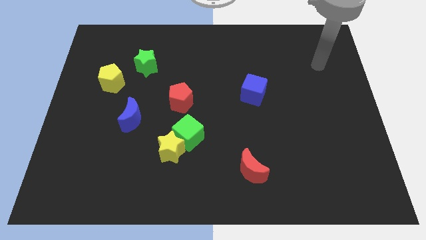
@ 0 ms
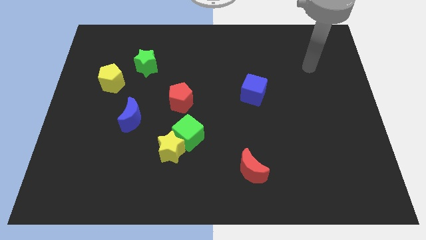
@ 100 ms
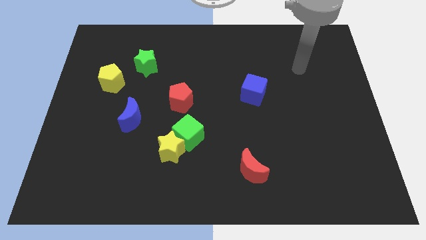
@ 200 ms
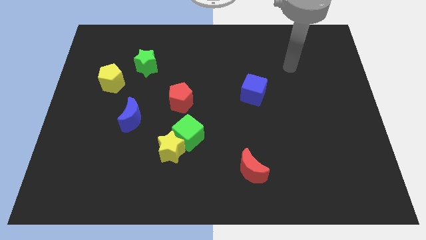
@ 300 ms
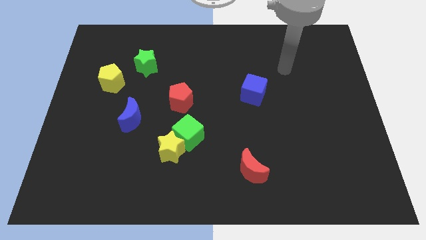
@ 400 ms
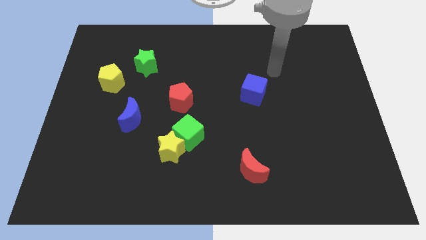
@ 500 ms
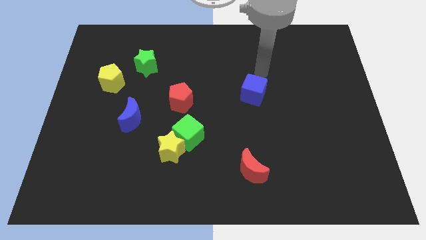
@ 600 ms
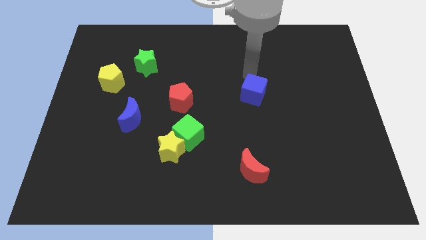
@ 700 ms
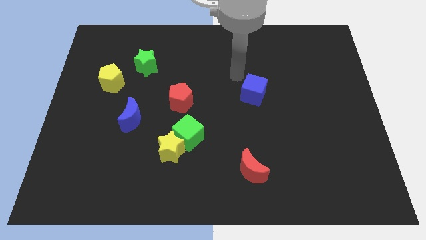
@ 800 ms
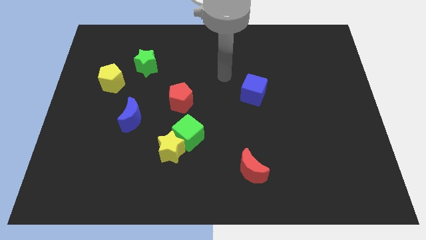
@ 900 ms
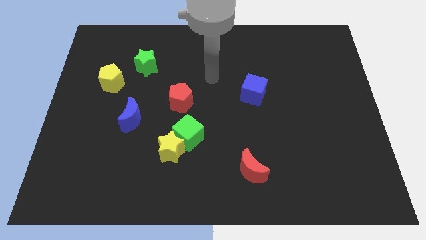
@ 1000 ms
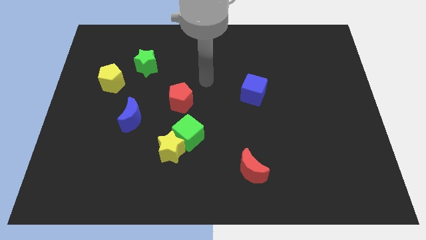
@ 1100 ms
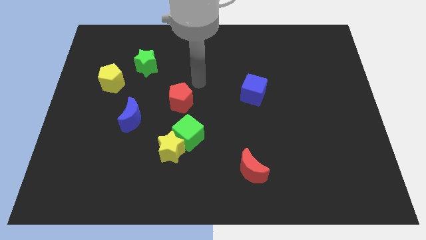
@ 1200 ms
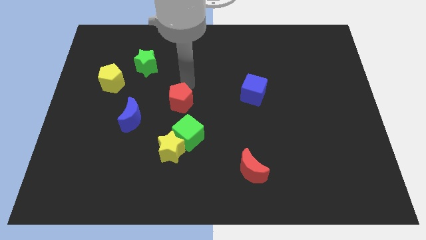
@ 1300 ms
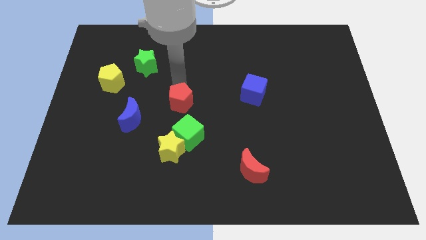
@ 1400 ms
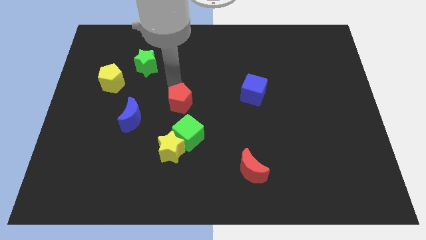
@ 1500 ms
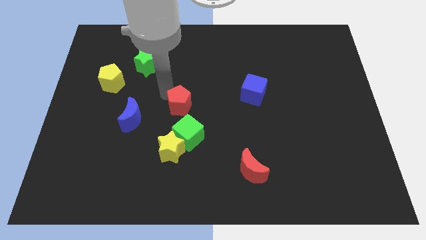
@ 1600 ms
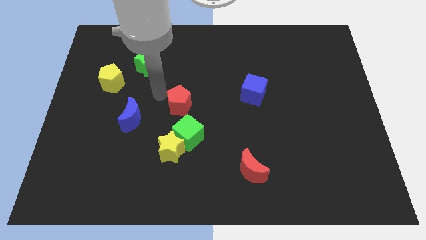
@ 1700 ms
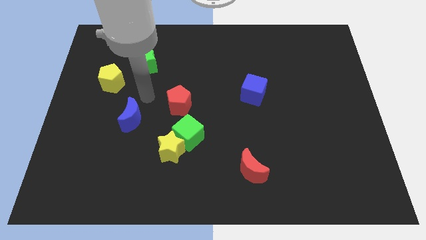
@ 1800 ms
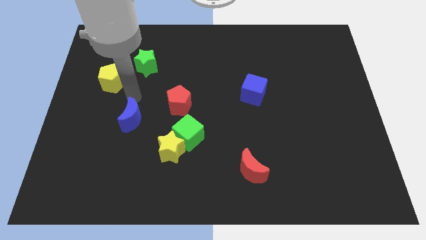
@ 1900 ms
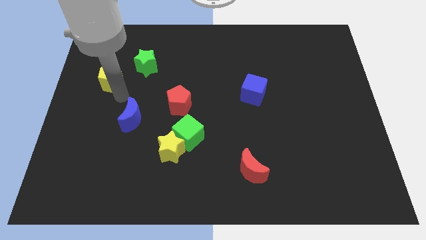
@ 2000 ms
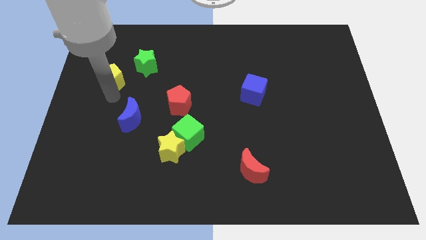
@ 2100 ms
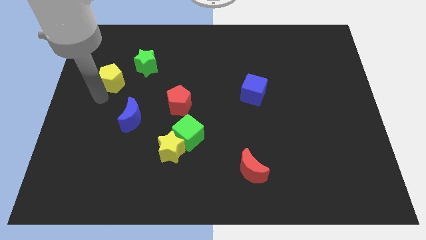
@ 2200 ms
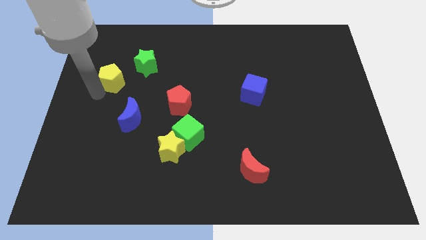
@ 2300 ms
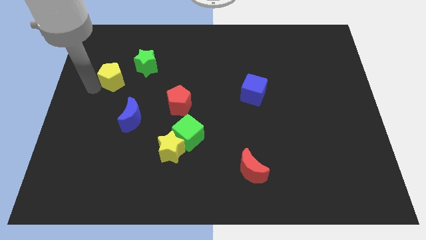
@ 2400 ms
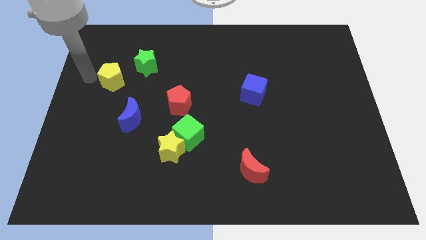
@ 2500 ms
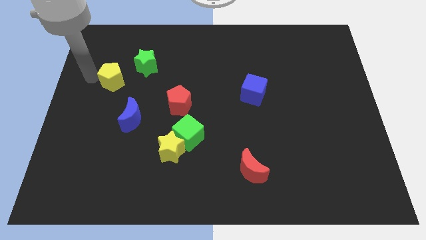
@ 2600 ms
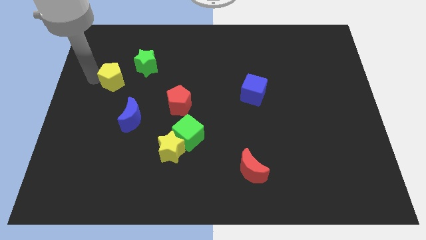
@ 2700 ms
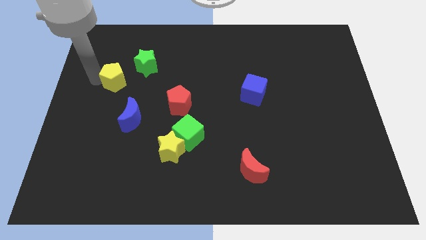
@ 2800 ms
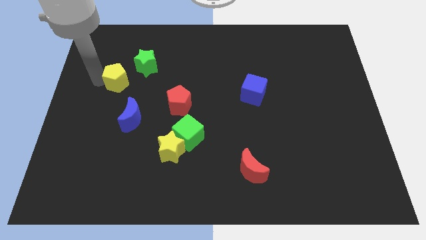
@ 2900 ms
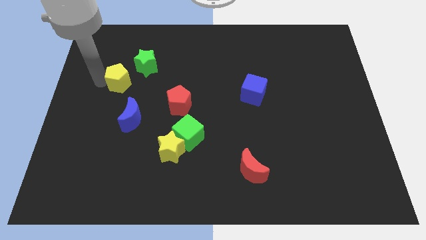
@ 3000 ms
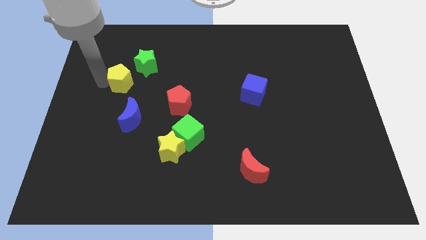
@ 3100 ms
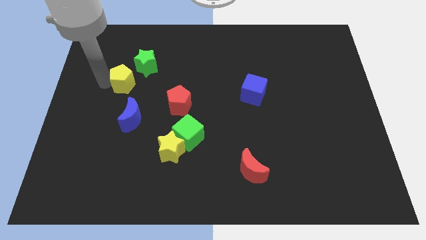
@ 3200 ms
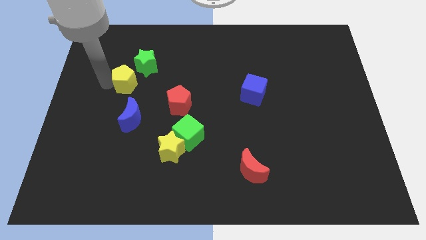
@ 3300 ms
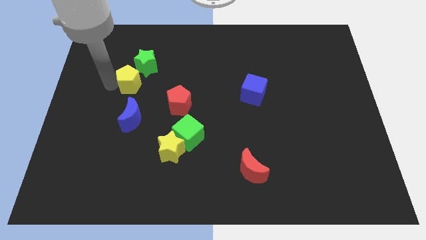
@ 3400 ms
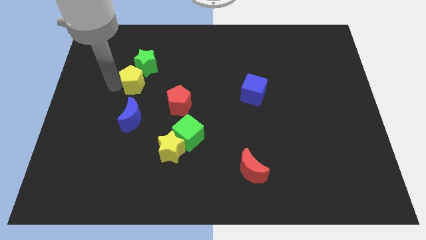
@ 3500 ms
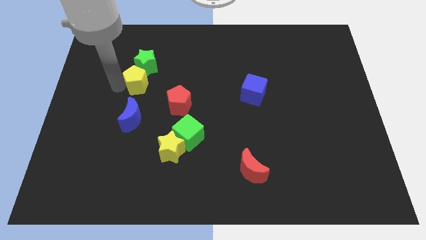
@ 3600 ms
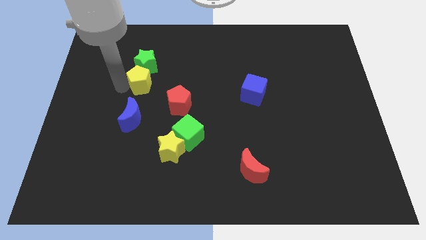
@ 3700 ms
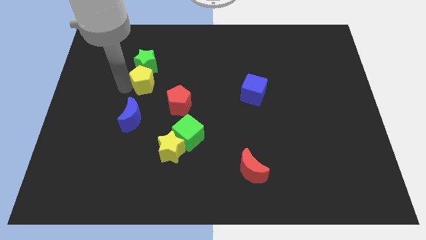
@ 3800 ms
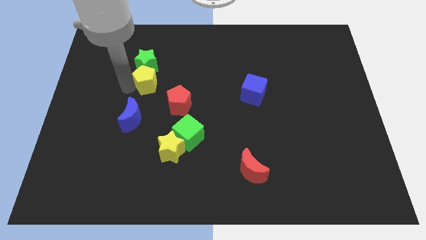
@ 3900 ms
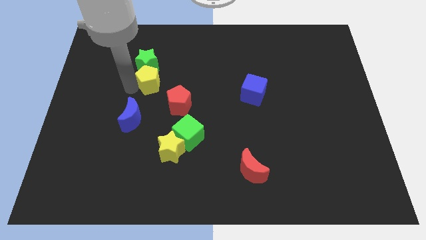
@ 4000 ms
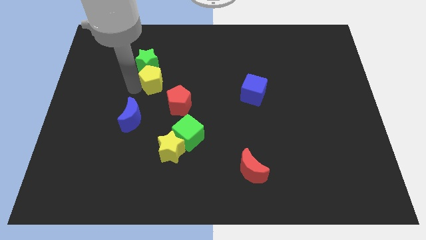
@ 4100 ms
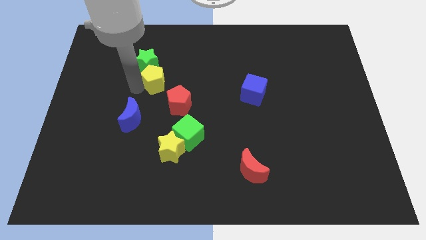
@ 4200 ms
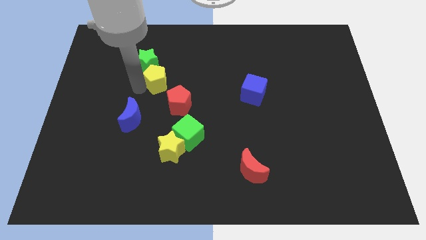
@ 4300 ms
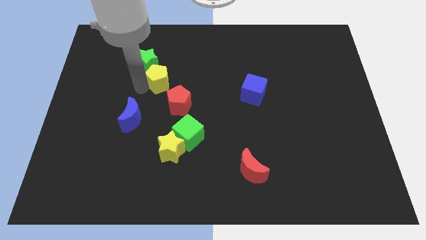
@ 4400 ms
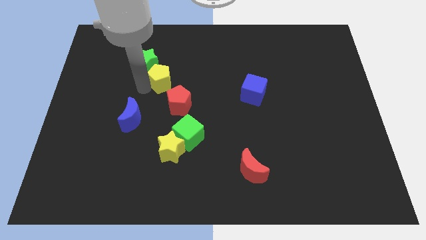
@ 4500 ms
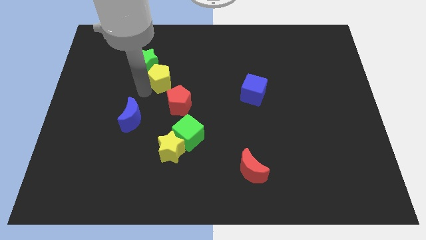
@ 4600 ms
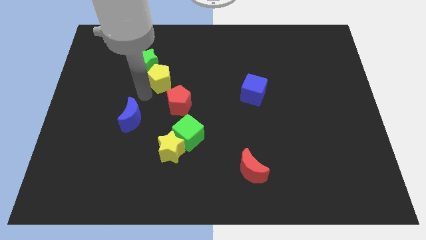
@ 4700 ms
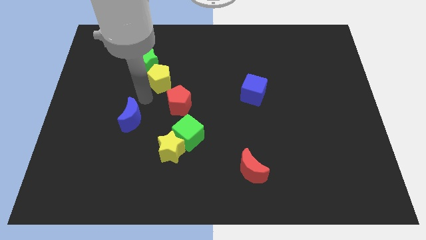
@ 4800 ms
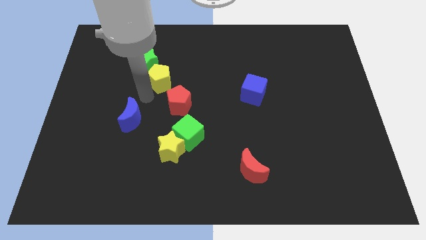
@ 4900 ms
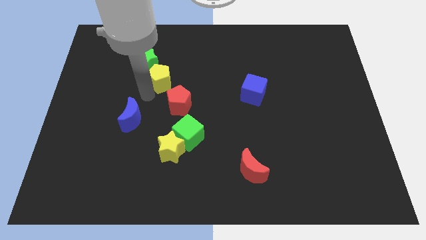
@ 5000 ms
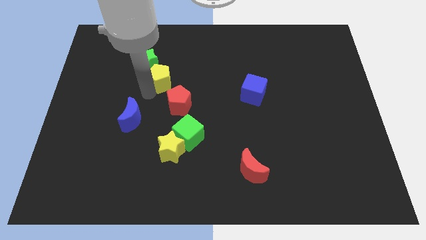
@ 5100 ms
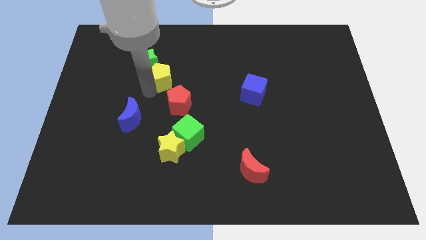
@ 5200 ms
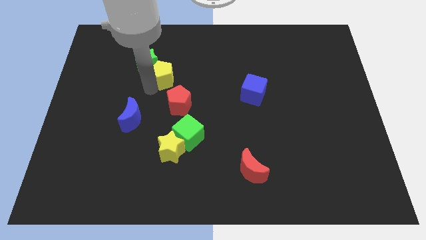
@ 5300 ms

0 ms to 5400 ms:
put the yellow pentagon to the right side of the green star

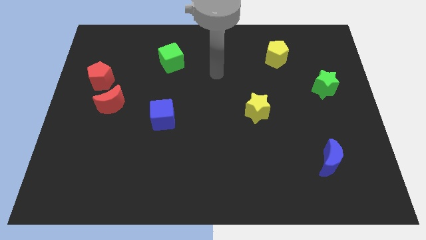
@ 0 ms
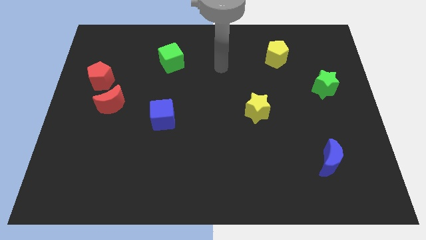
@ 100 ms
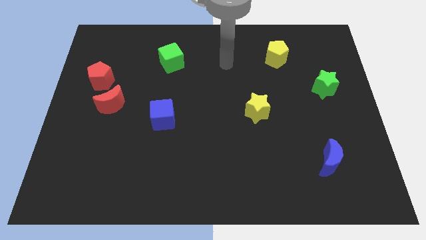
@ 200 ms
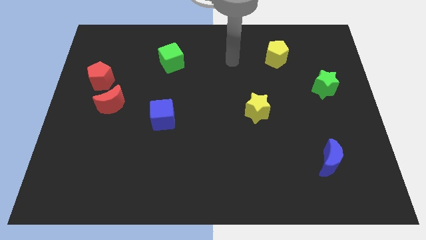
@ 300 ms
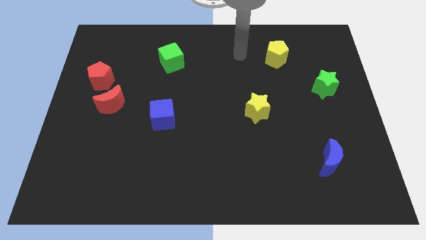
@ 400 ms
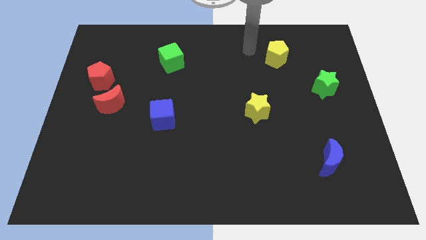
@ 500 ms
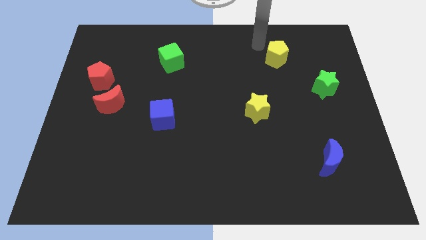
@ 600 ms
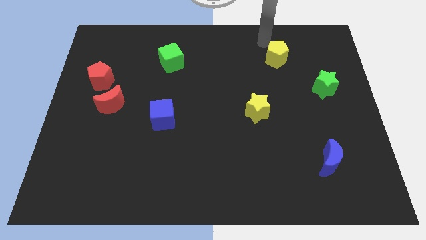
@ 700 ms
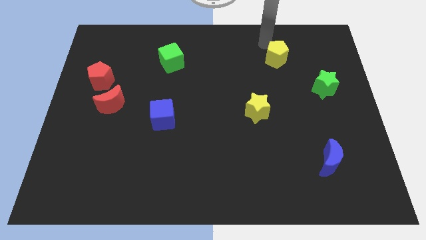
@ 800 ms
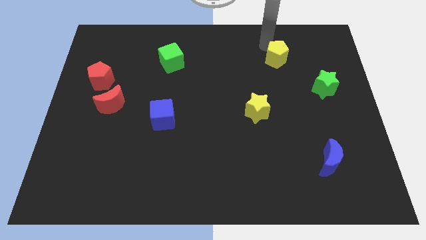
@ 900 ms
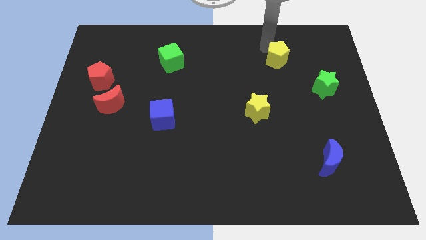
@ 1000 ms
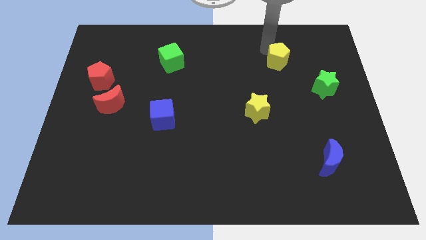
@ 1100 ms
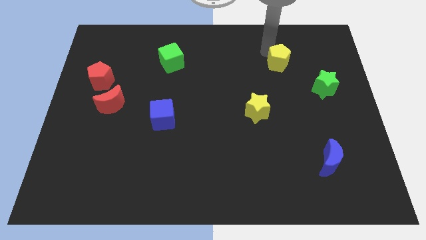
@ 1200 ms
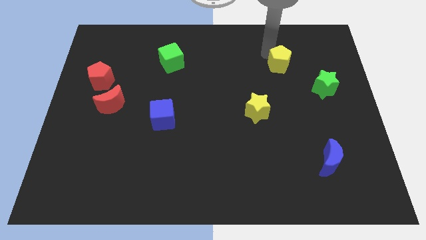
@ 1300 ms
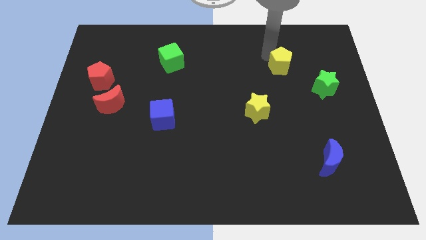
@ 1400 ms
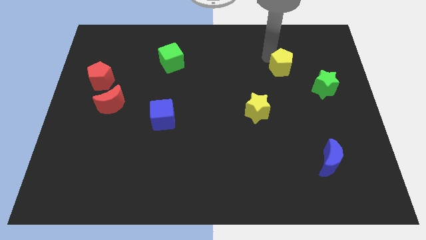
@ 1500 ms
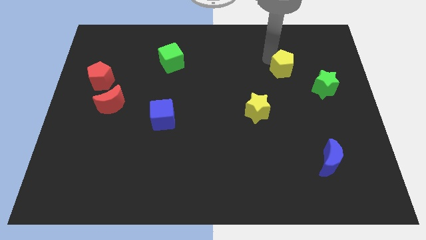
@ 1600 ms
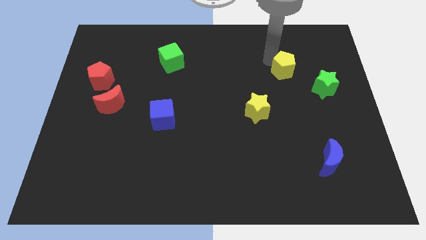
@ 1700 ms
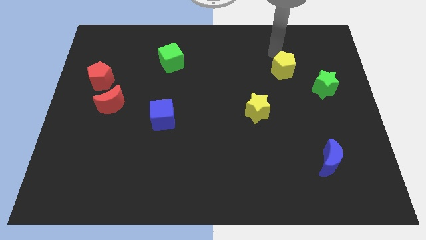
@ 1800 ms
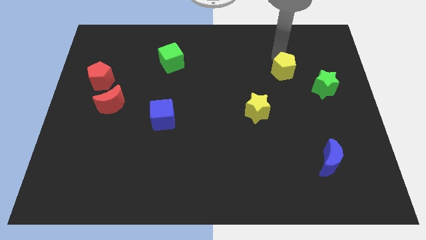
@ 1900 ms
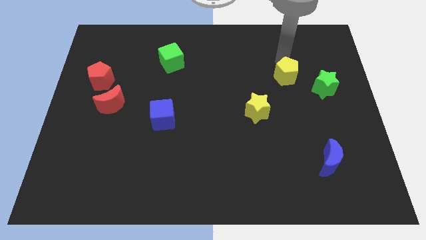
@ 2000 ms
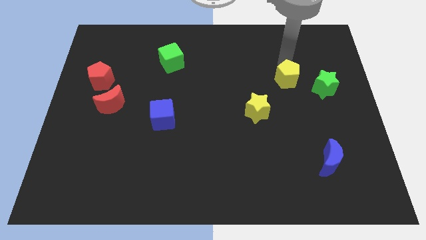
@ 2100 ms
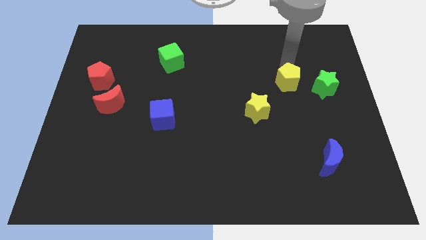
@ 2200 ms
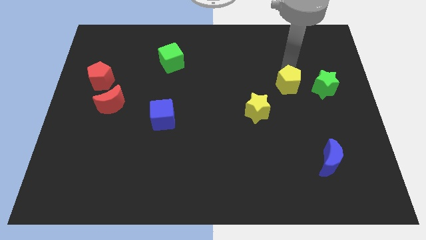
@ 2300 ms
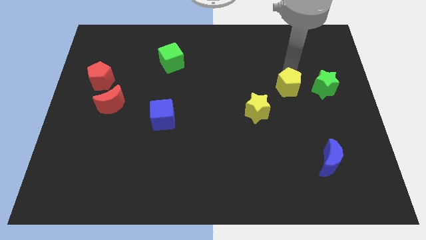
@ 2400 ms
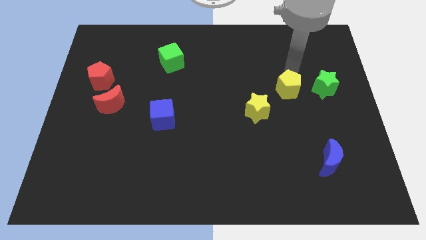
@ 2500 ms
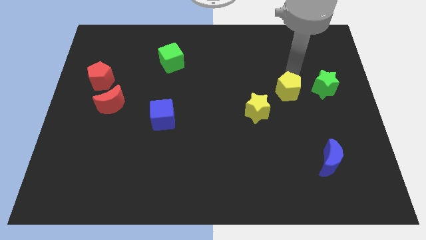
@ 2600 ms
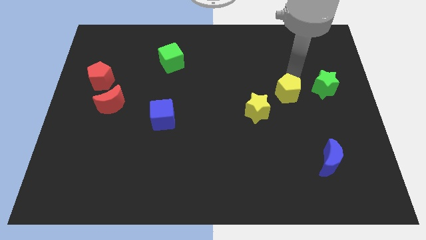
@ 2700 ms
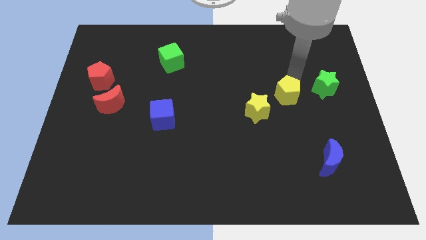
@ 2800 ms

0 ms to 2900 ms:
put the yellow pentagon right of the yellow star
